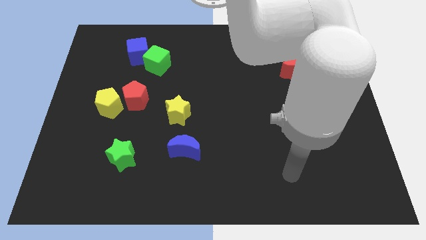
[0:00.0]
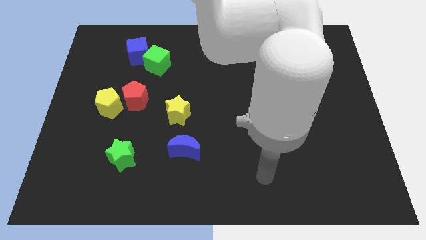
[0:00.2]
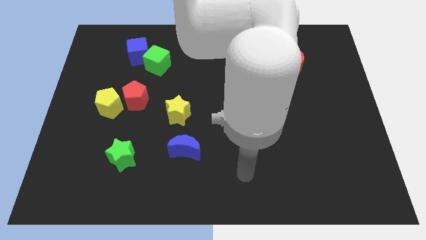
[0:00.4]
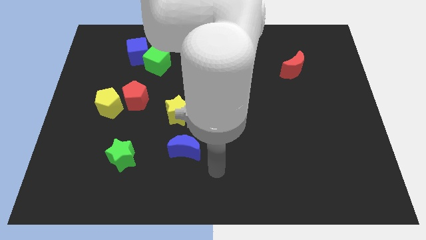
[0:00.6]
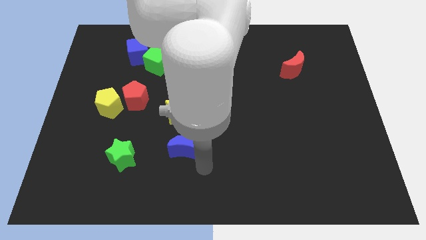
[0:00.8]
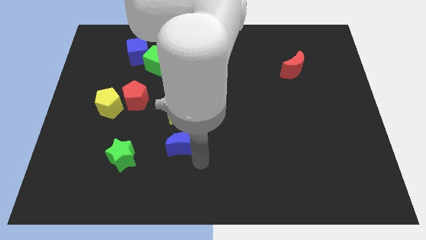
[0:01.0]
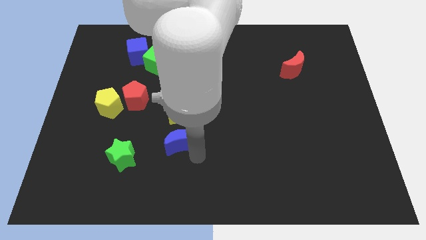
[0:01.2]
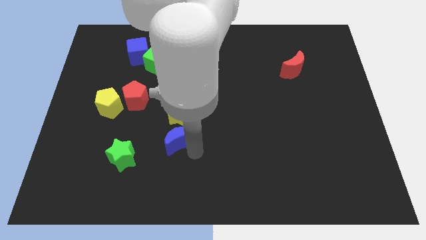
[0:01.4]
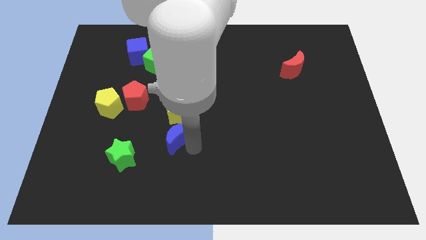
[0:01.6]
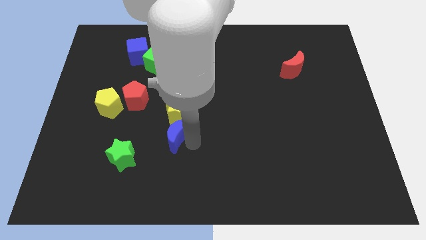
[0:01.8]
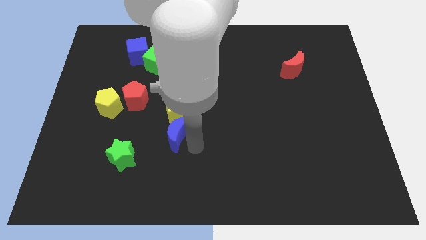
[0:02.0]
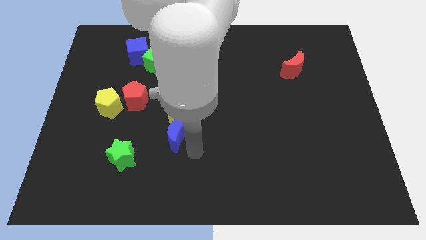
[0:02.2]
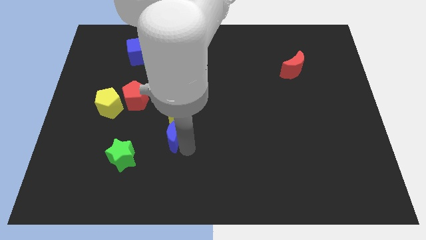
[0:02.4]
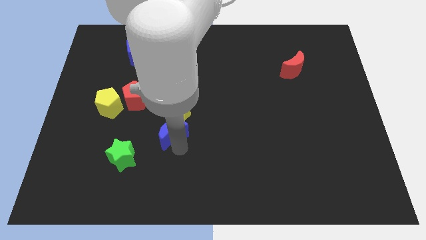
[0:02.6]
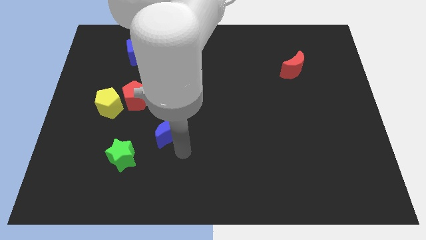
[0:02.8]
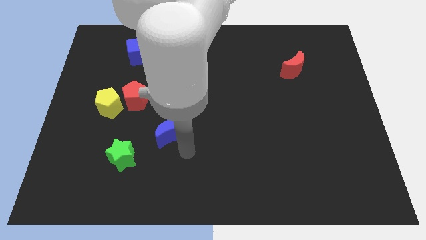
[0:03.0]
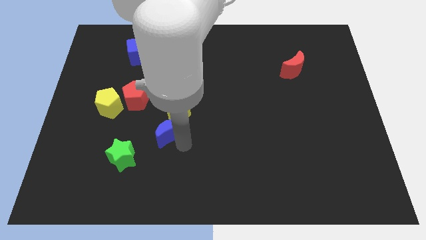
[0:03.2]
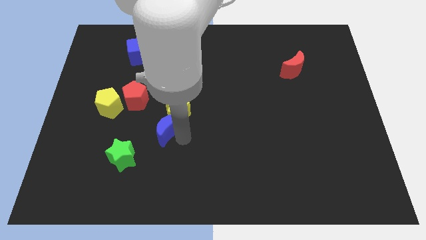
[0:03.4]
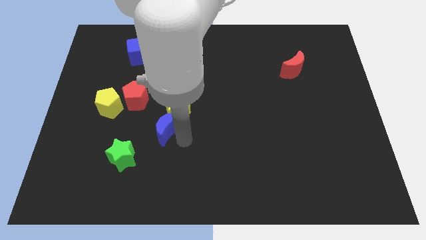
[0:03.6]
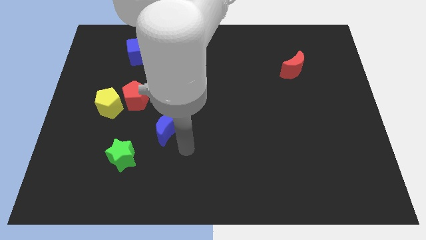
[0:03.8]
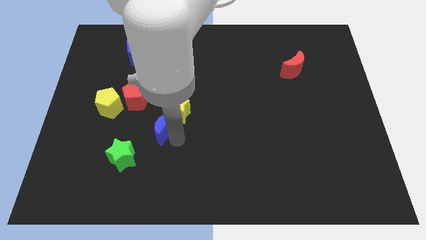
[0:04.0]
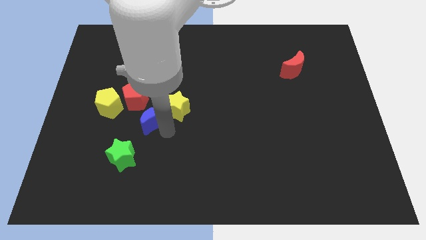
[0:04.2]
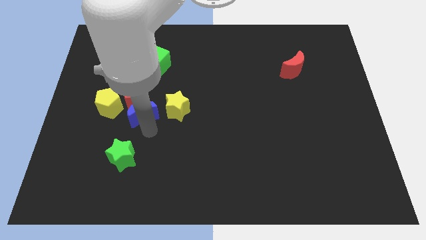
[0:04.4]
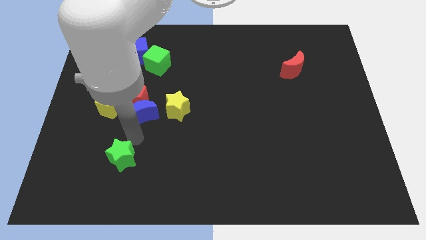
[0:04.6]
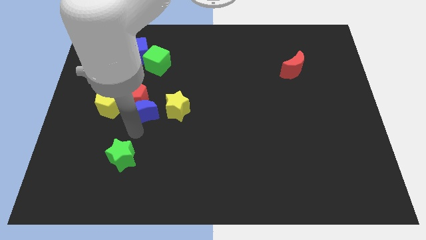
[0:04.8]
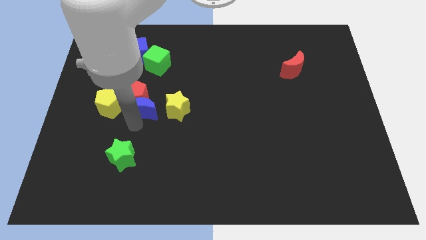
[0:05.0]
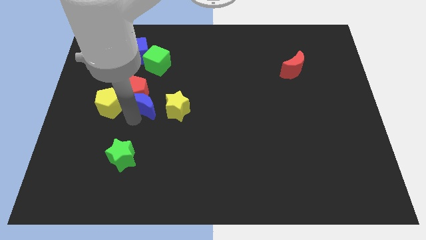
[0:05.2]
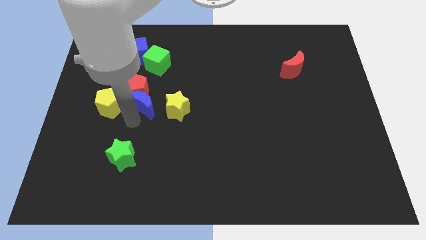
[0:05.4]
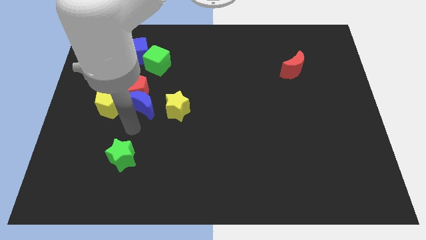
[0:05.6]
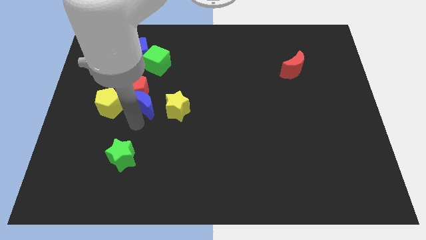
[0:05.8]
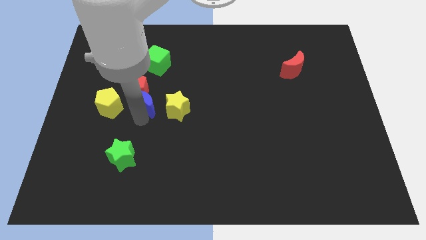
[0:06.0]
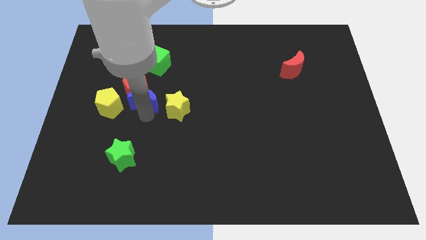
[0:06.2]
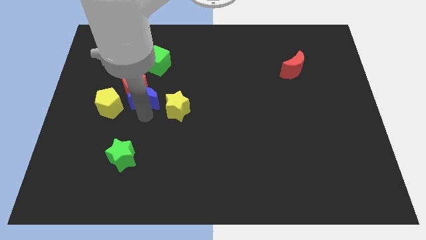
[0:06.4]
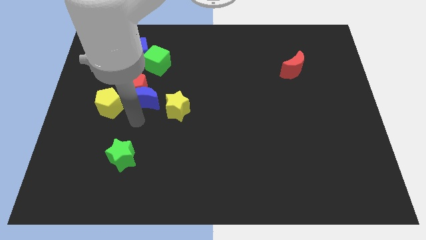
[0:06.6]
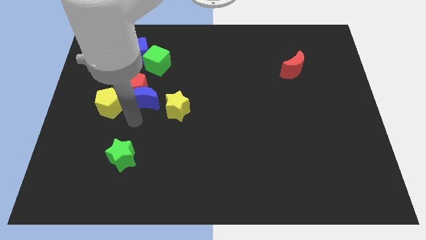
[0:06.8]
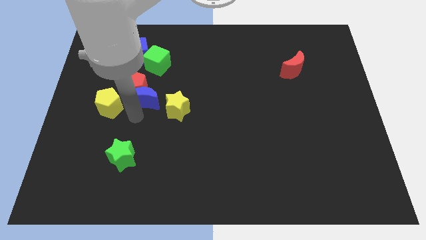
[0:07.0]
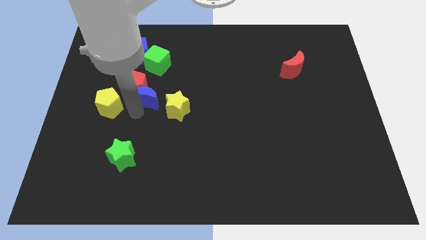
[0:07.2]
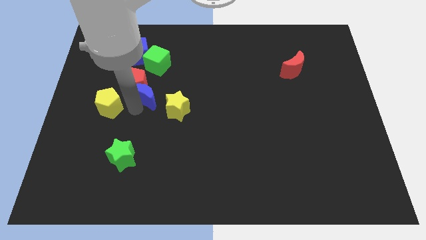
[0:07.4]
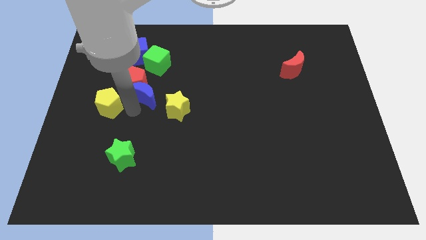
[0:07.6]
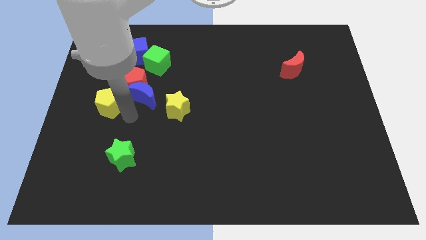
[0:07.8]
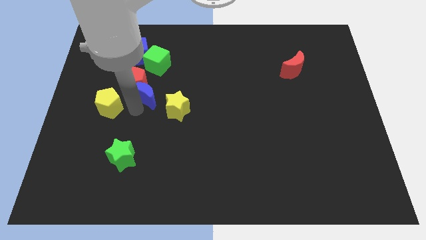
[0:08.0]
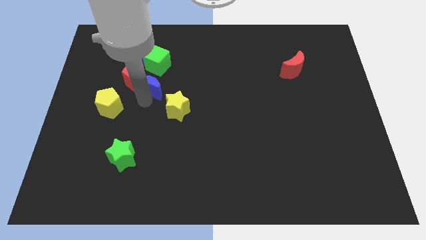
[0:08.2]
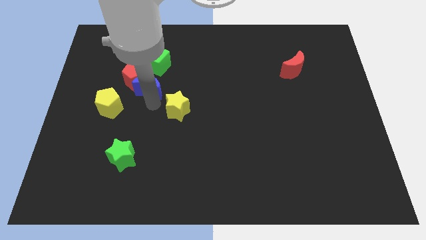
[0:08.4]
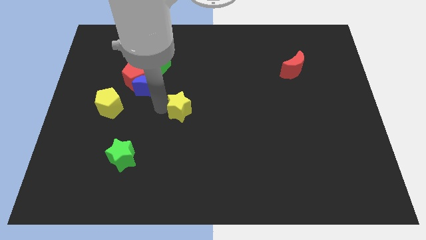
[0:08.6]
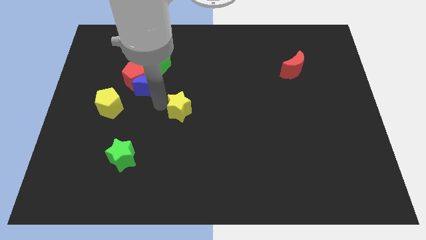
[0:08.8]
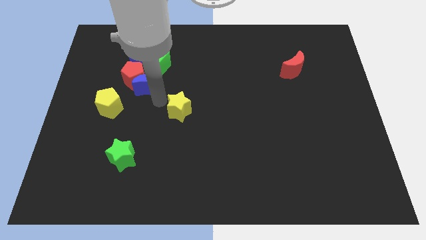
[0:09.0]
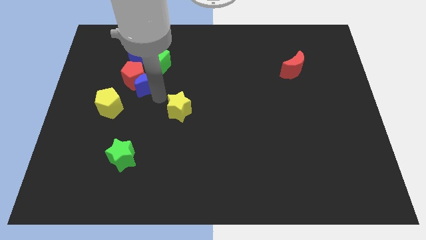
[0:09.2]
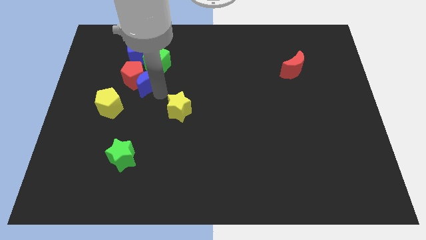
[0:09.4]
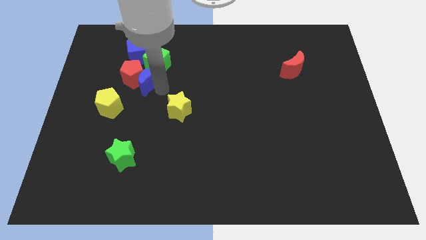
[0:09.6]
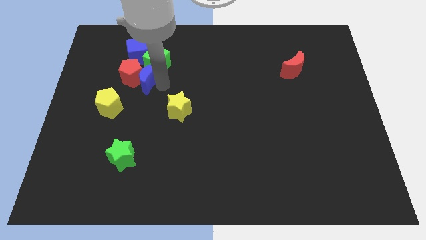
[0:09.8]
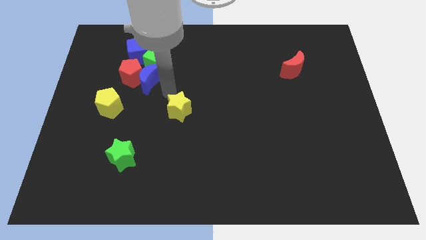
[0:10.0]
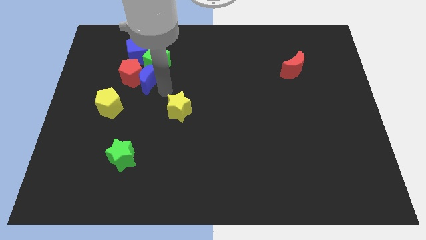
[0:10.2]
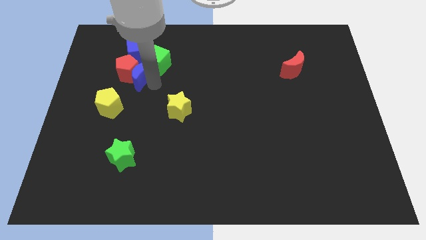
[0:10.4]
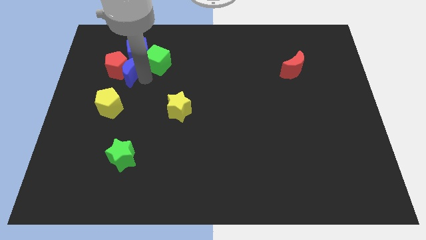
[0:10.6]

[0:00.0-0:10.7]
move the blue moon to the top side of the yellow pentagon
